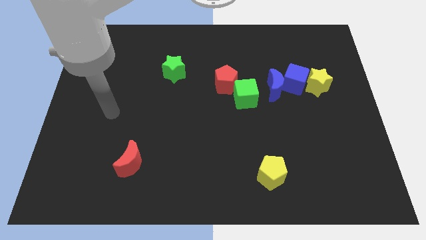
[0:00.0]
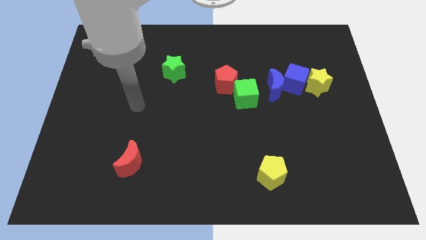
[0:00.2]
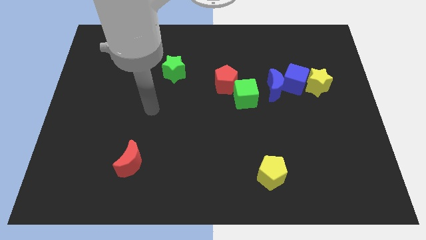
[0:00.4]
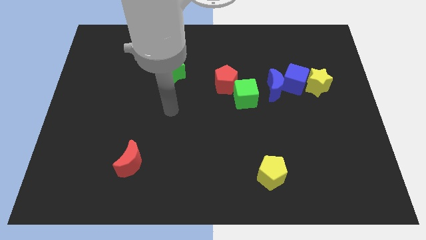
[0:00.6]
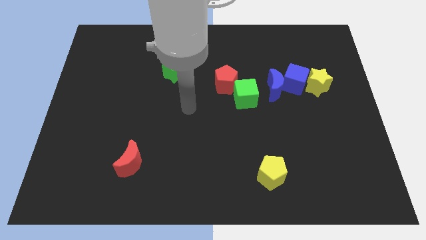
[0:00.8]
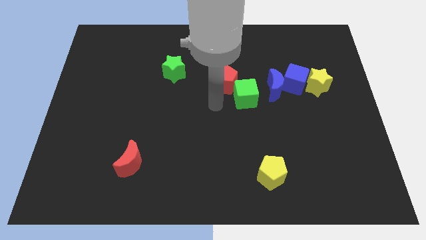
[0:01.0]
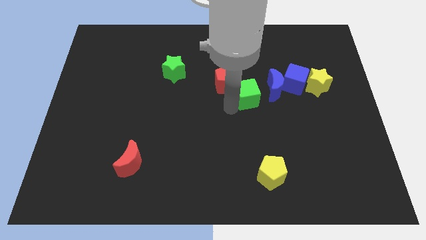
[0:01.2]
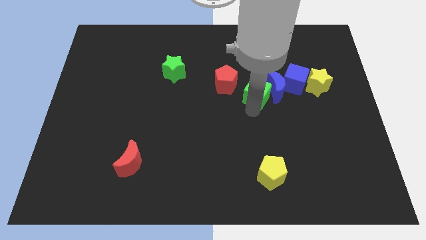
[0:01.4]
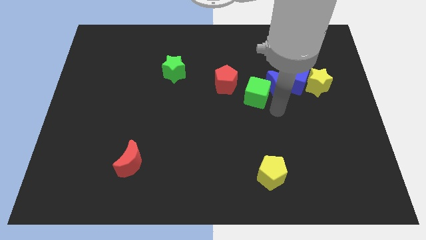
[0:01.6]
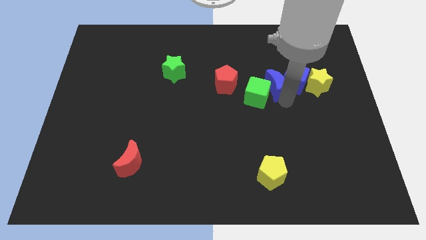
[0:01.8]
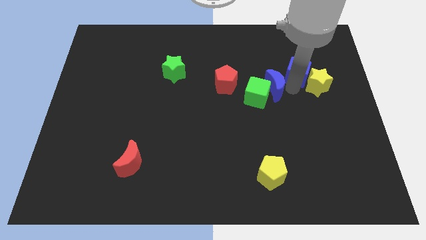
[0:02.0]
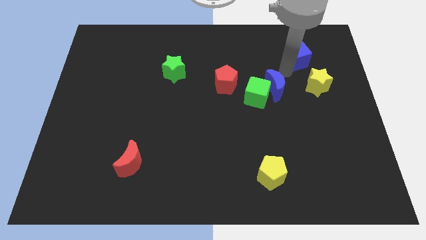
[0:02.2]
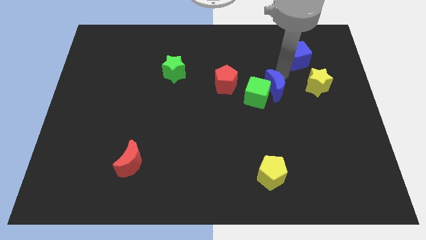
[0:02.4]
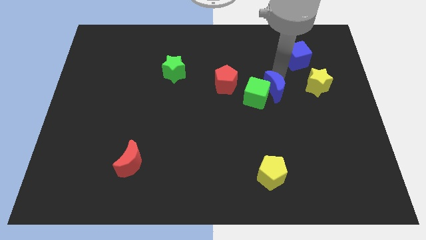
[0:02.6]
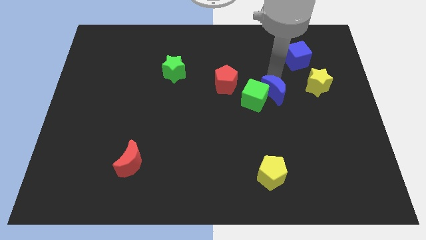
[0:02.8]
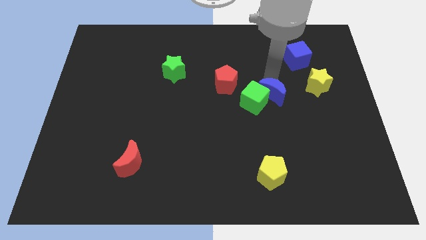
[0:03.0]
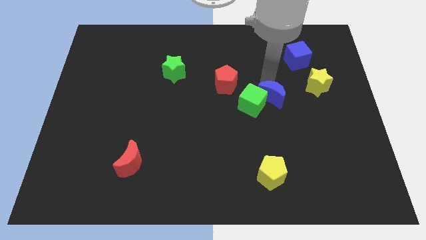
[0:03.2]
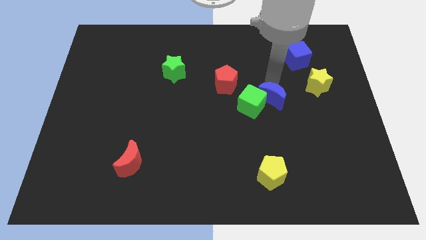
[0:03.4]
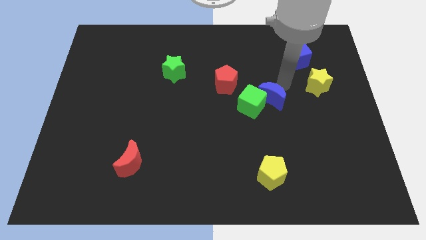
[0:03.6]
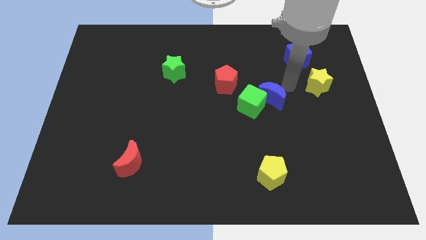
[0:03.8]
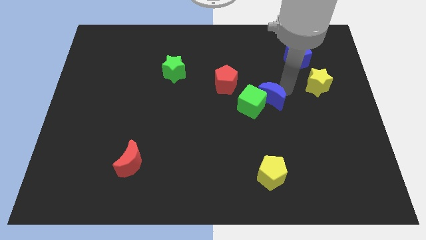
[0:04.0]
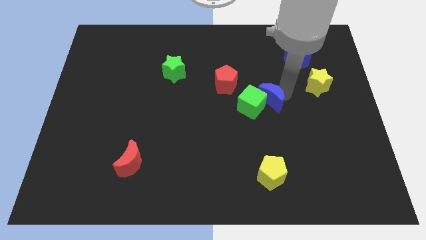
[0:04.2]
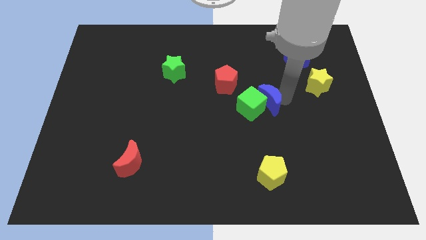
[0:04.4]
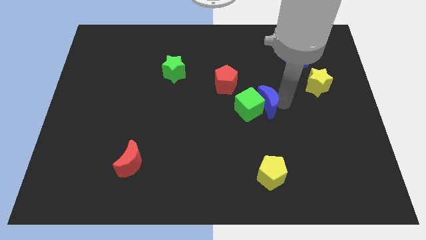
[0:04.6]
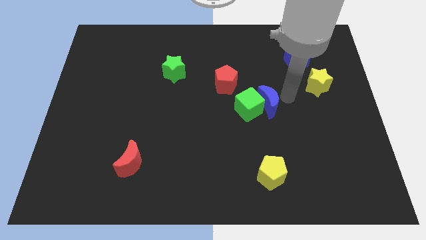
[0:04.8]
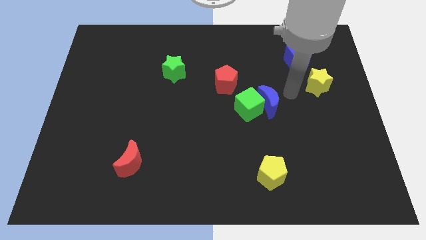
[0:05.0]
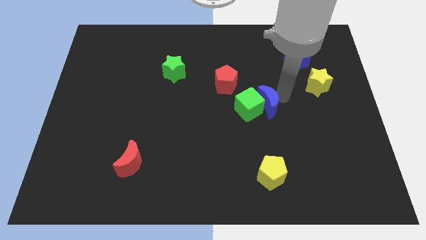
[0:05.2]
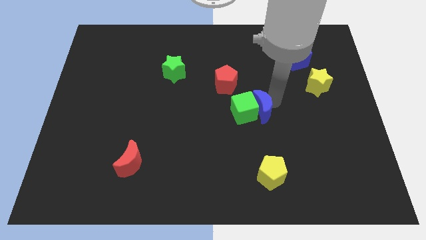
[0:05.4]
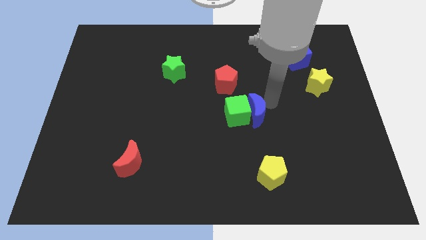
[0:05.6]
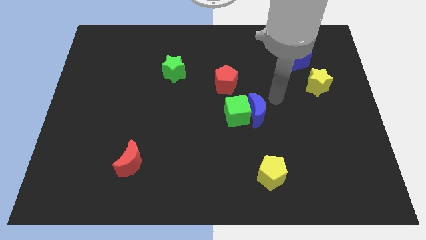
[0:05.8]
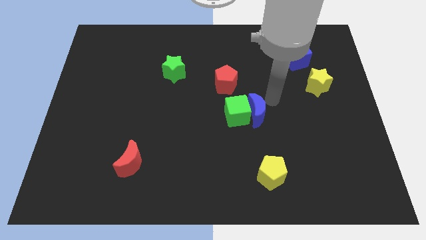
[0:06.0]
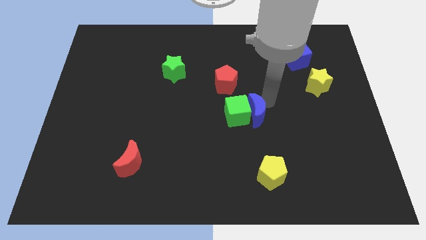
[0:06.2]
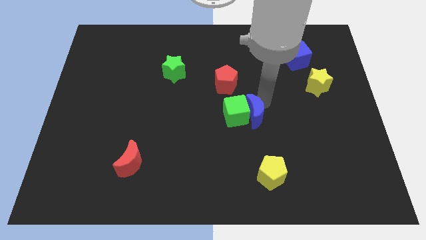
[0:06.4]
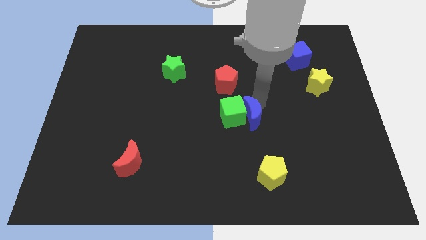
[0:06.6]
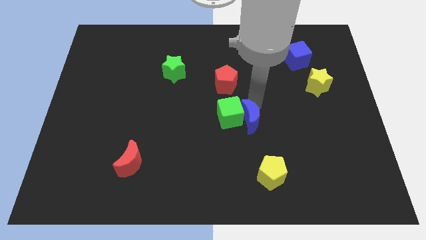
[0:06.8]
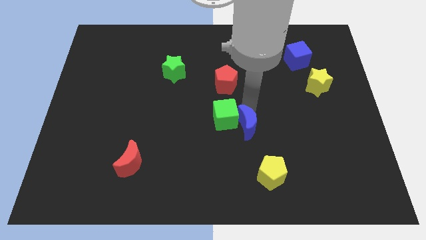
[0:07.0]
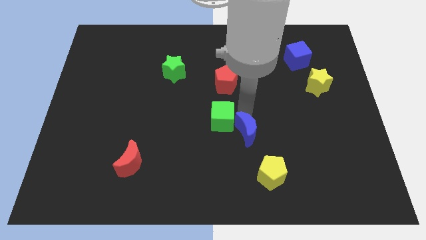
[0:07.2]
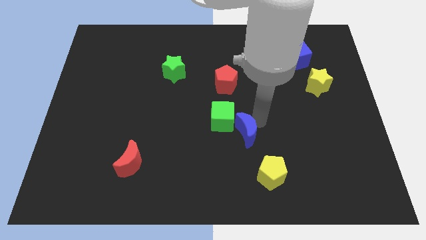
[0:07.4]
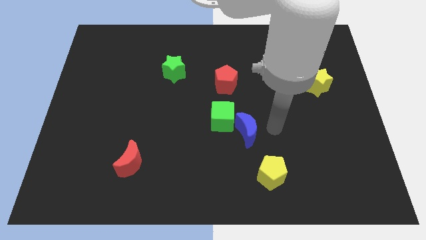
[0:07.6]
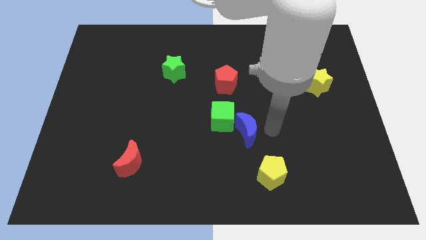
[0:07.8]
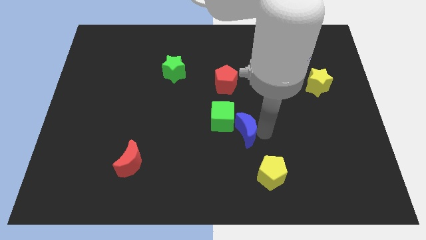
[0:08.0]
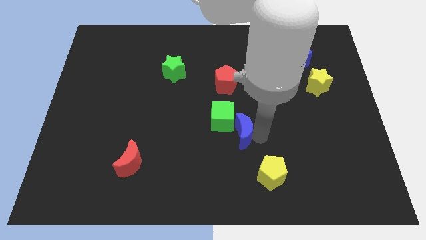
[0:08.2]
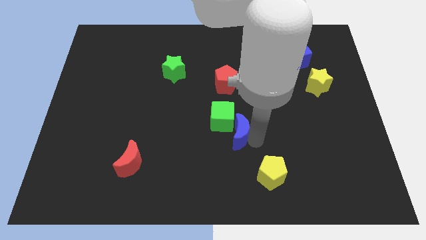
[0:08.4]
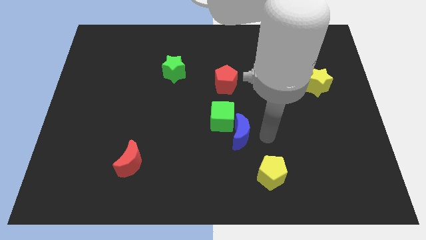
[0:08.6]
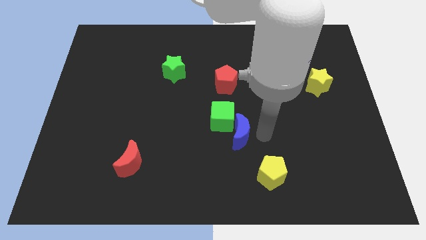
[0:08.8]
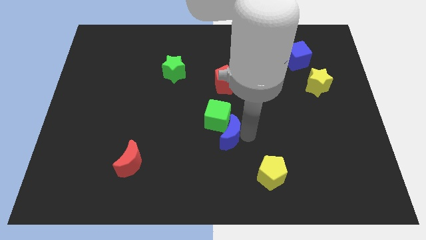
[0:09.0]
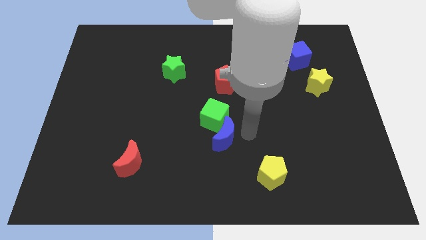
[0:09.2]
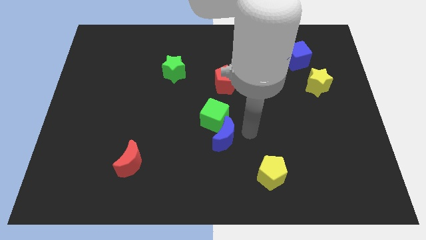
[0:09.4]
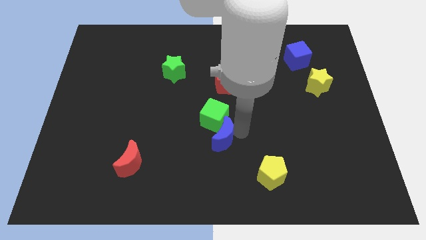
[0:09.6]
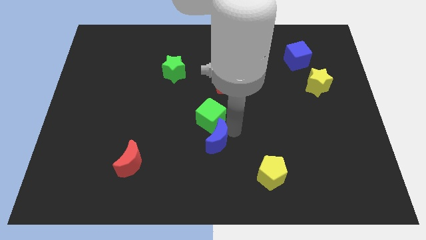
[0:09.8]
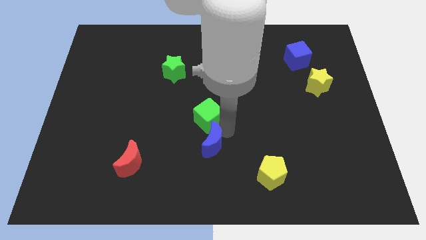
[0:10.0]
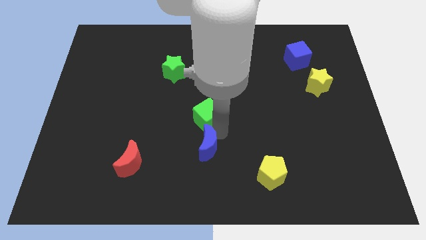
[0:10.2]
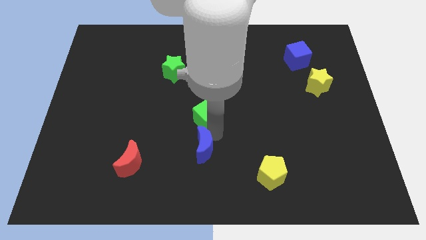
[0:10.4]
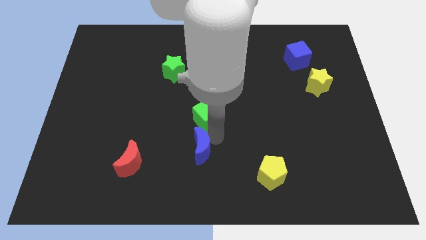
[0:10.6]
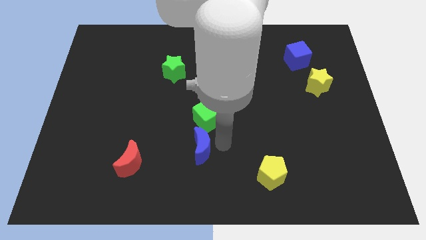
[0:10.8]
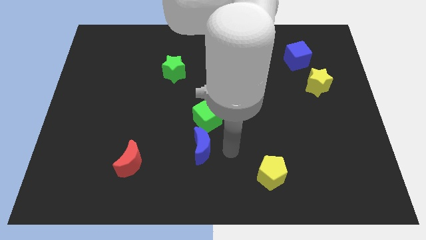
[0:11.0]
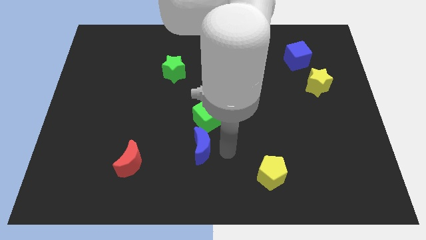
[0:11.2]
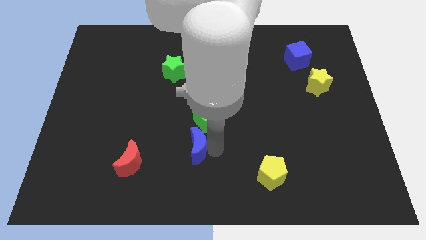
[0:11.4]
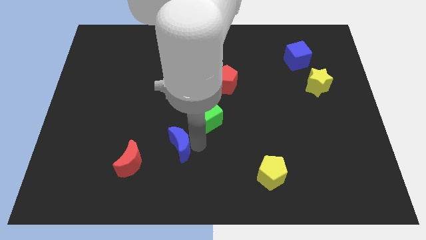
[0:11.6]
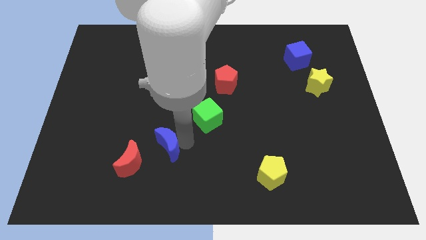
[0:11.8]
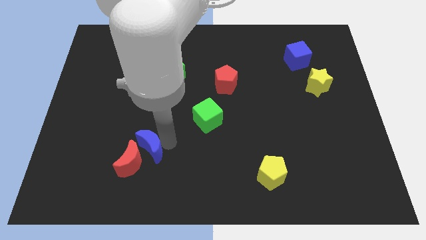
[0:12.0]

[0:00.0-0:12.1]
push the blue moon close to the red moon

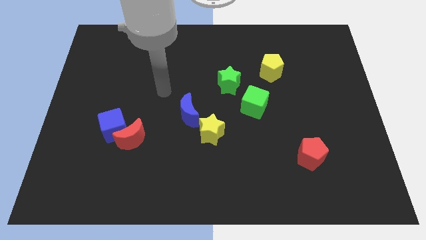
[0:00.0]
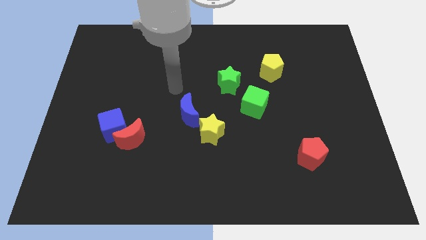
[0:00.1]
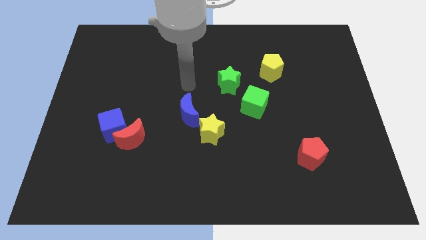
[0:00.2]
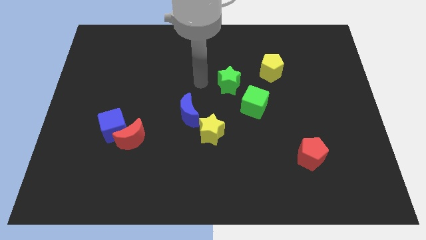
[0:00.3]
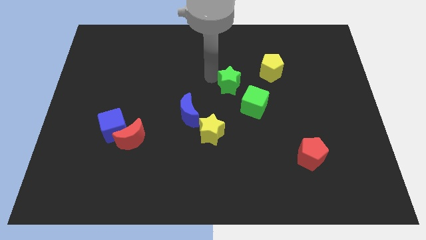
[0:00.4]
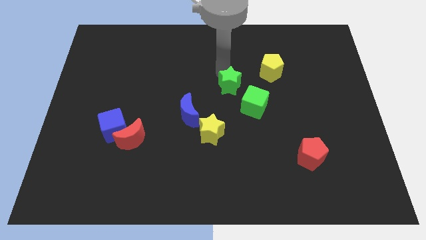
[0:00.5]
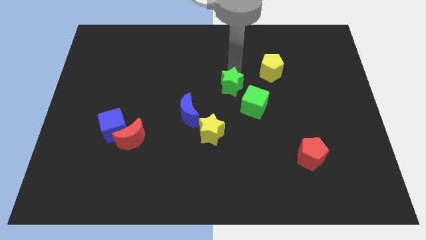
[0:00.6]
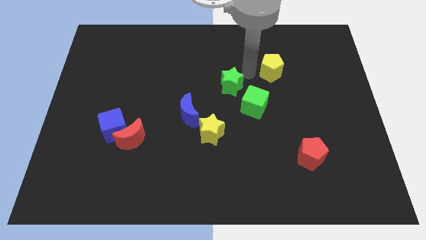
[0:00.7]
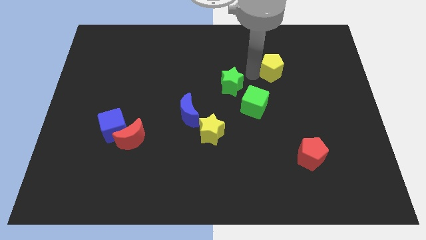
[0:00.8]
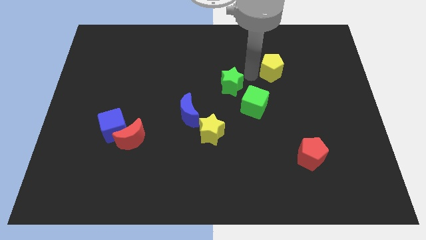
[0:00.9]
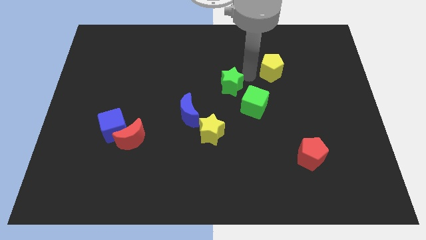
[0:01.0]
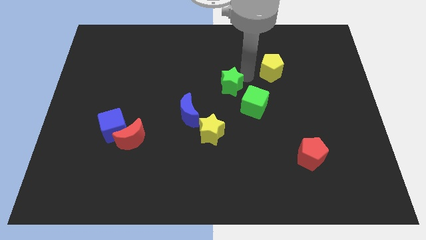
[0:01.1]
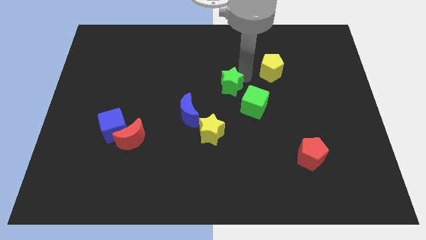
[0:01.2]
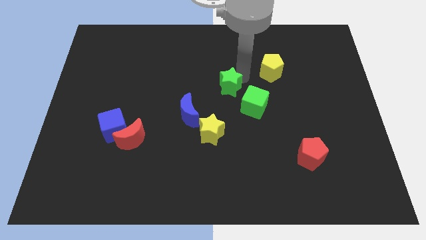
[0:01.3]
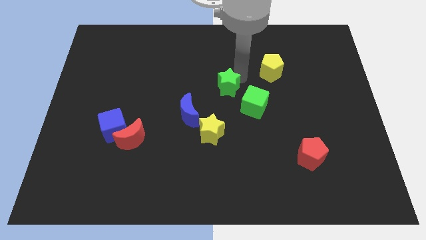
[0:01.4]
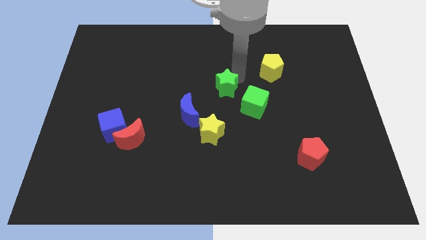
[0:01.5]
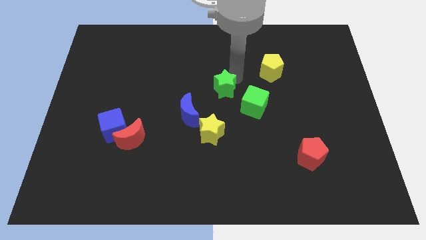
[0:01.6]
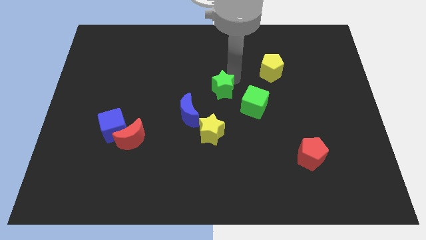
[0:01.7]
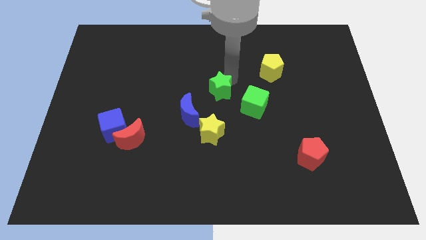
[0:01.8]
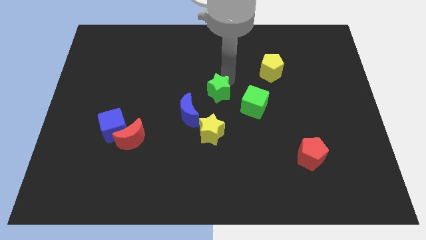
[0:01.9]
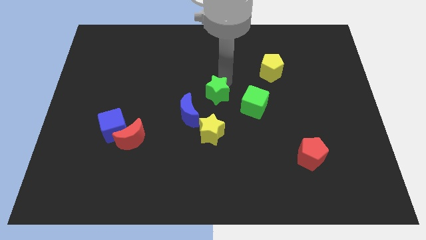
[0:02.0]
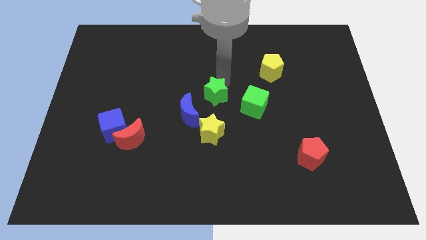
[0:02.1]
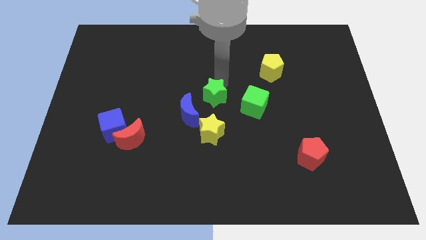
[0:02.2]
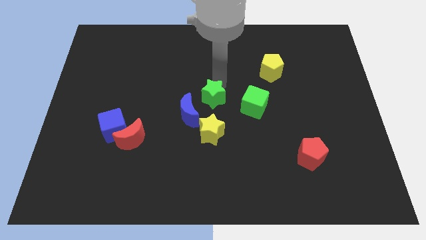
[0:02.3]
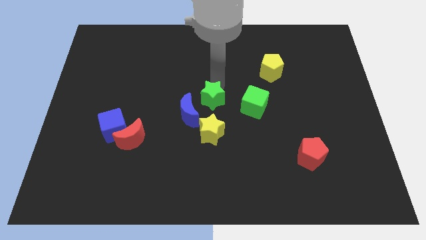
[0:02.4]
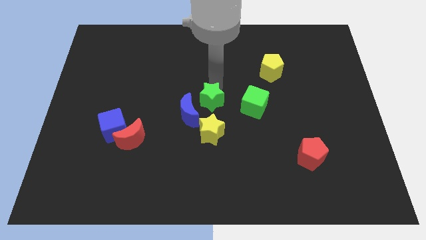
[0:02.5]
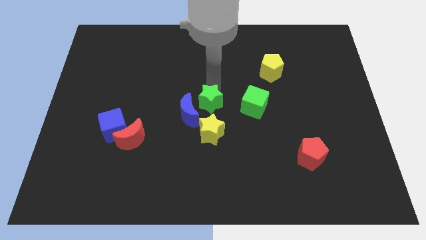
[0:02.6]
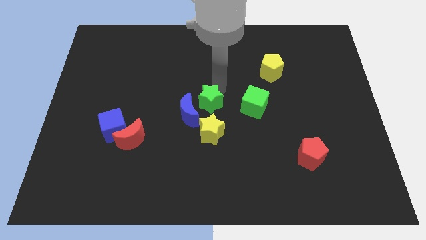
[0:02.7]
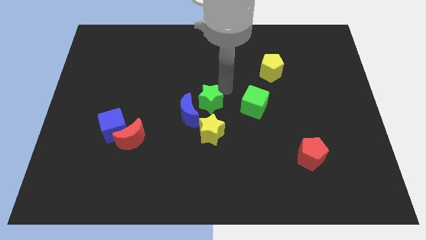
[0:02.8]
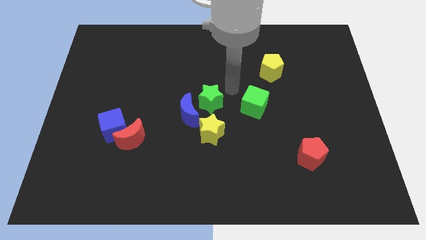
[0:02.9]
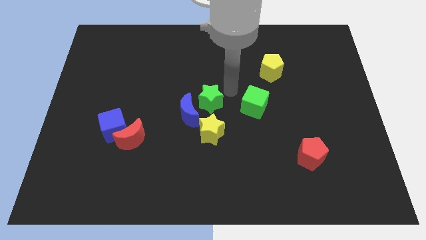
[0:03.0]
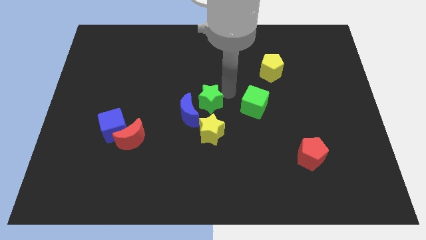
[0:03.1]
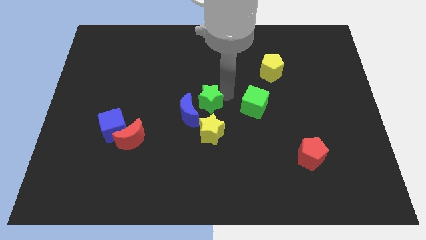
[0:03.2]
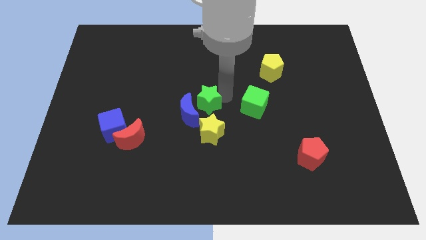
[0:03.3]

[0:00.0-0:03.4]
move the green star close to the blue moon
